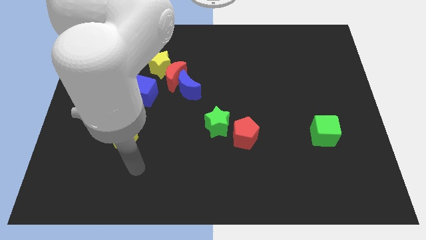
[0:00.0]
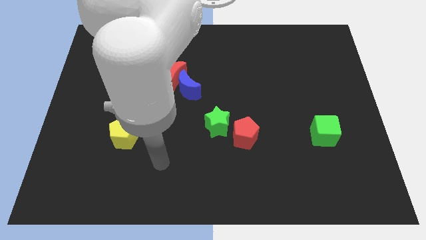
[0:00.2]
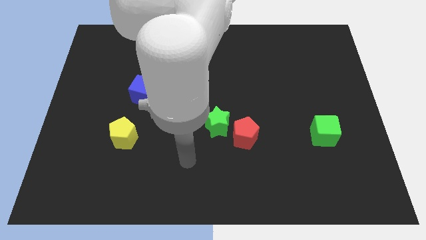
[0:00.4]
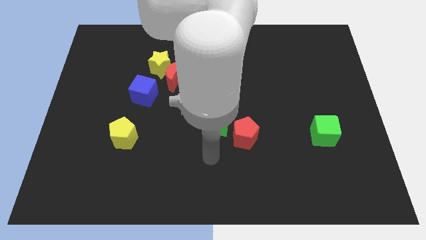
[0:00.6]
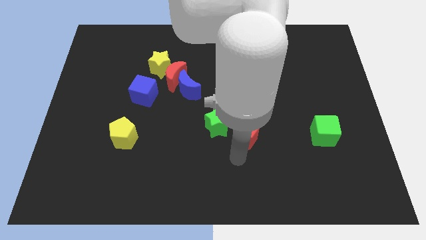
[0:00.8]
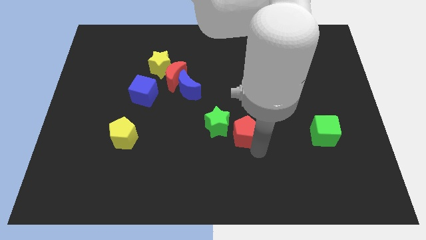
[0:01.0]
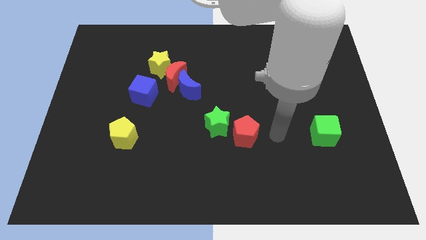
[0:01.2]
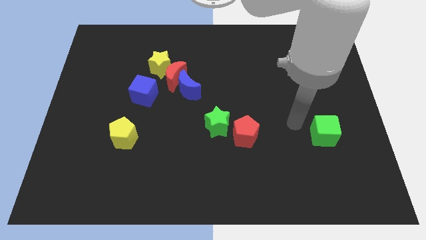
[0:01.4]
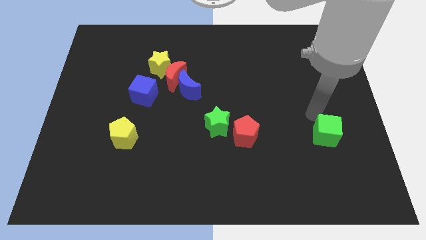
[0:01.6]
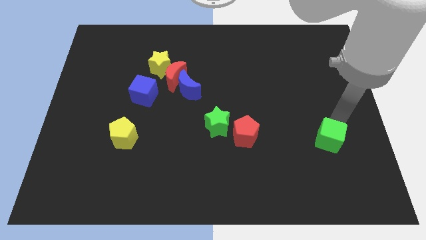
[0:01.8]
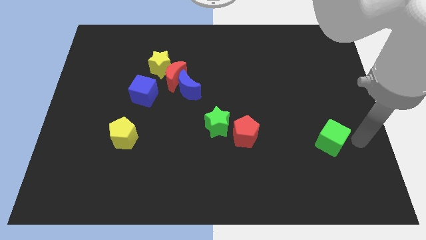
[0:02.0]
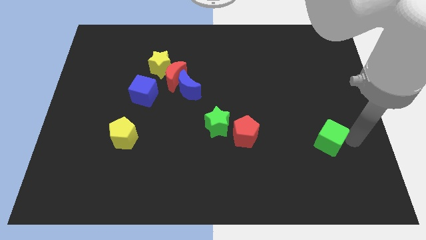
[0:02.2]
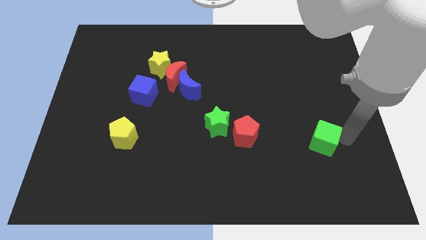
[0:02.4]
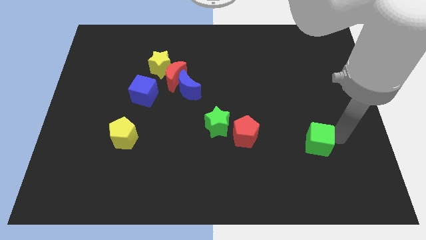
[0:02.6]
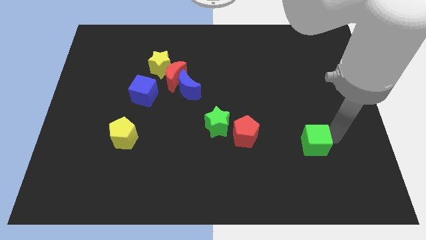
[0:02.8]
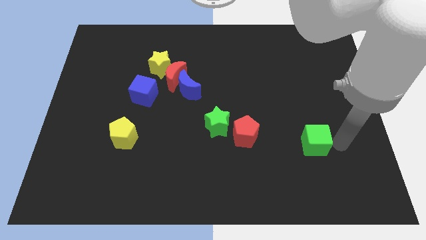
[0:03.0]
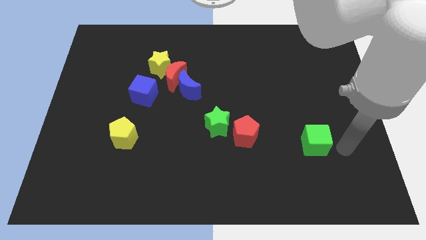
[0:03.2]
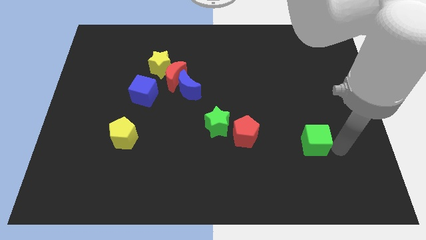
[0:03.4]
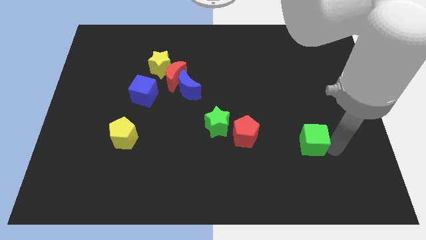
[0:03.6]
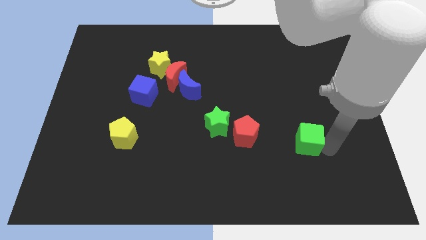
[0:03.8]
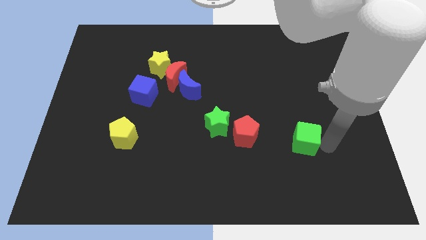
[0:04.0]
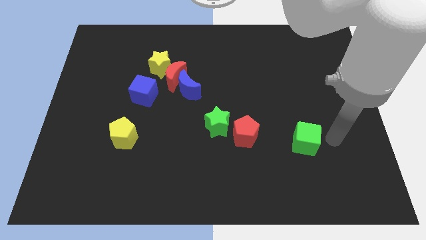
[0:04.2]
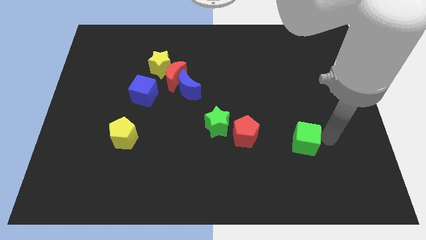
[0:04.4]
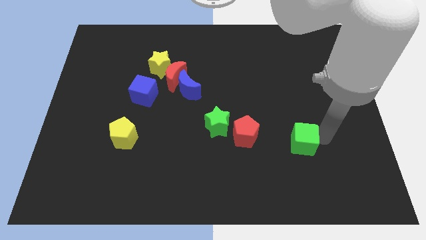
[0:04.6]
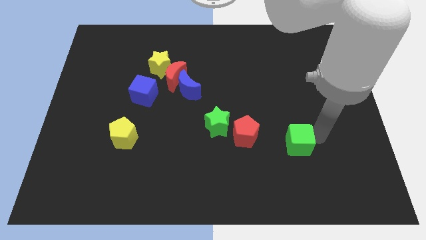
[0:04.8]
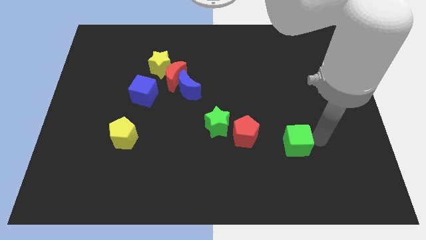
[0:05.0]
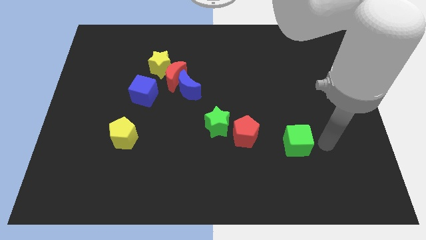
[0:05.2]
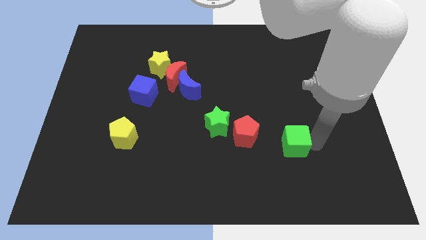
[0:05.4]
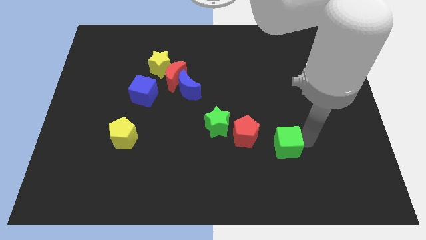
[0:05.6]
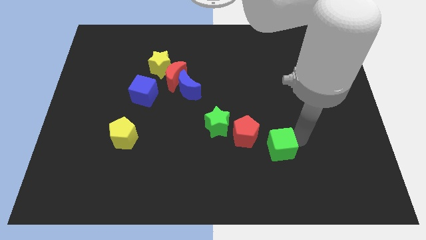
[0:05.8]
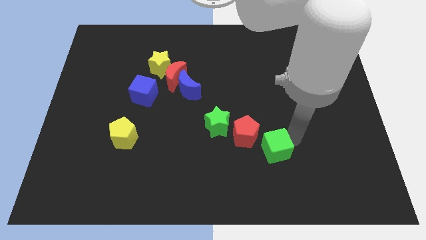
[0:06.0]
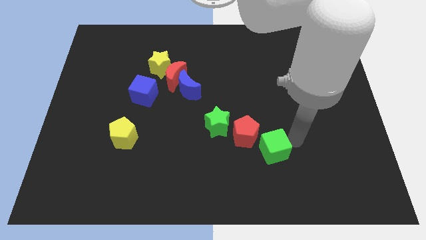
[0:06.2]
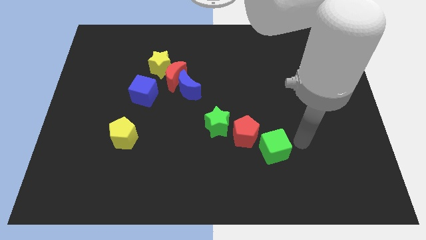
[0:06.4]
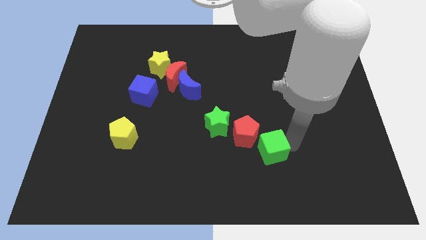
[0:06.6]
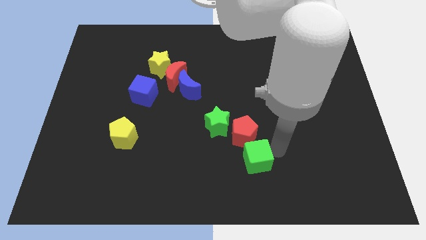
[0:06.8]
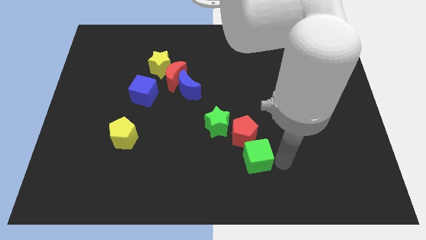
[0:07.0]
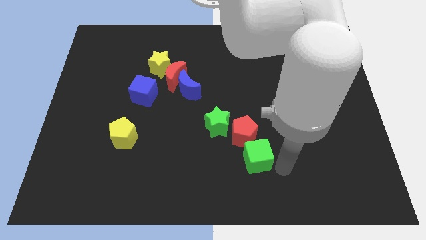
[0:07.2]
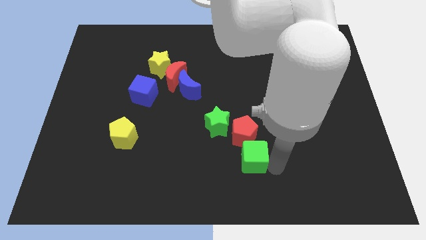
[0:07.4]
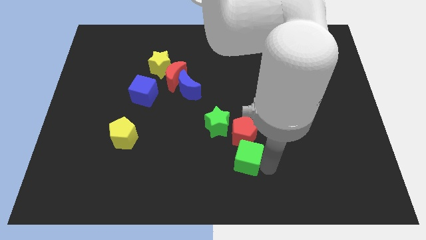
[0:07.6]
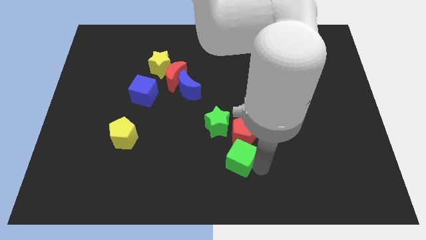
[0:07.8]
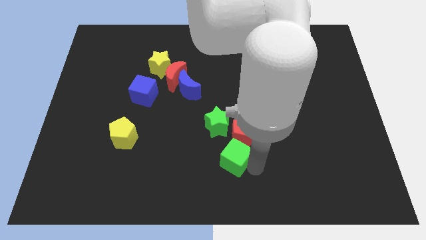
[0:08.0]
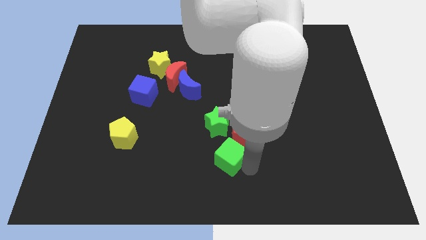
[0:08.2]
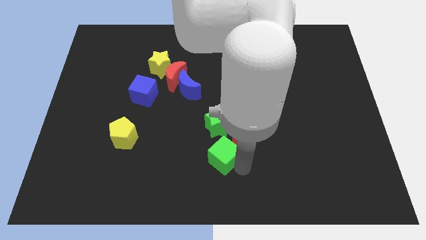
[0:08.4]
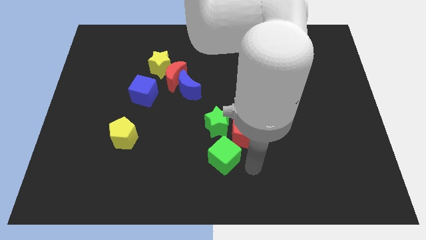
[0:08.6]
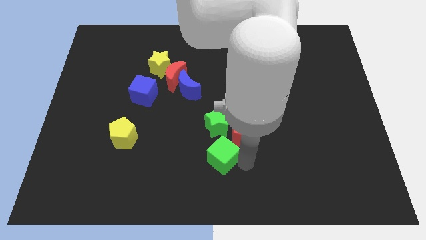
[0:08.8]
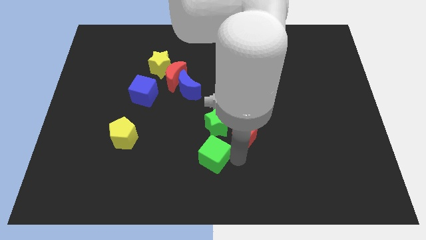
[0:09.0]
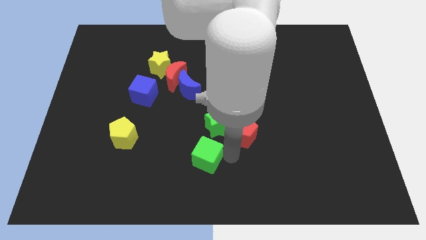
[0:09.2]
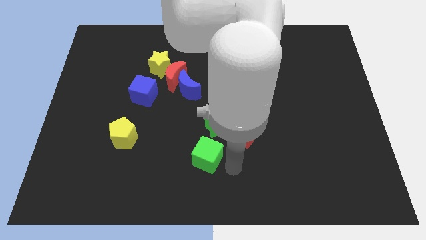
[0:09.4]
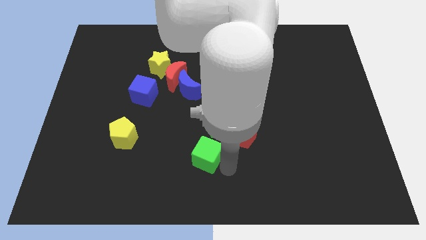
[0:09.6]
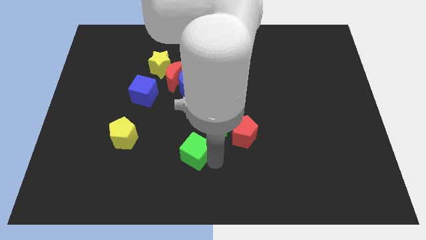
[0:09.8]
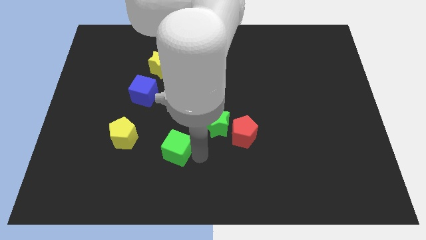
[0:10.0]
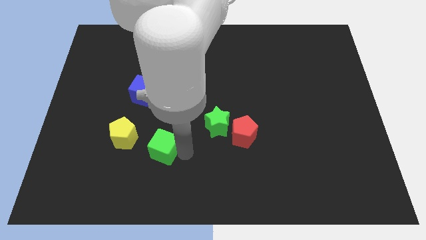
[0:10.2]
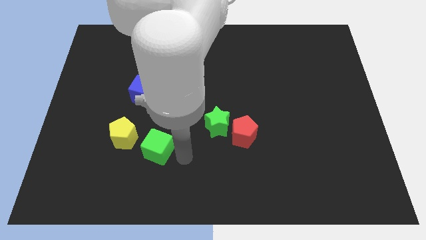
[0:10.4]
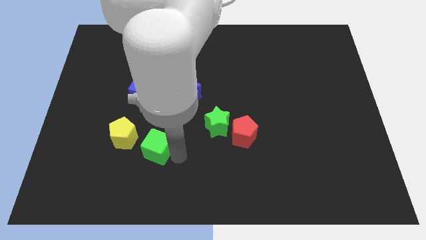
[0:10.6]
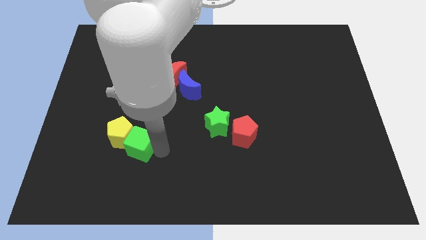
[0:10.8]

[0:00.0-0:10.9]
slide the green cube to the yellow pentagon

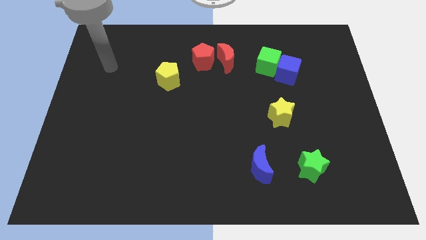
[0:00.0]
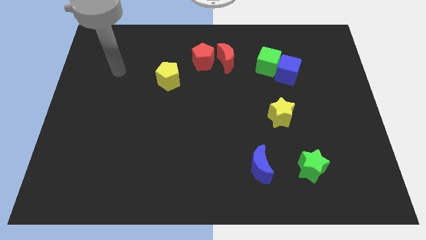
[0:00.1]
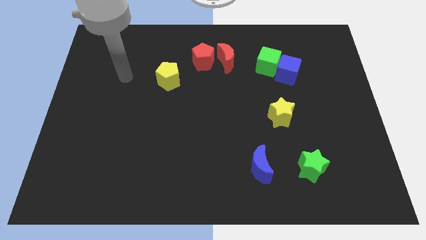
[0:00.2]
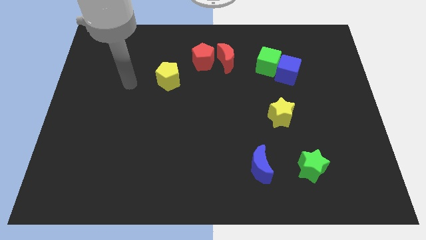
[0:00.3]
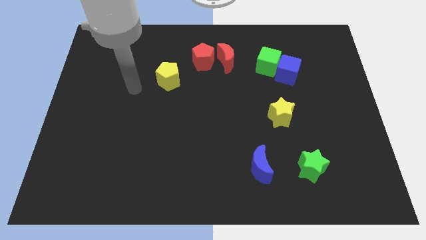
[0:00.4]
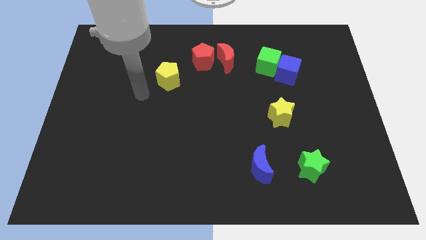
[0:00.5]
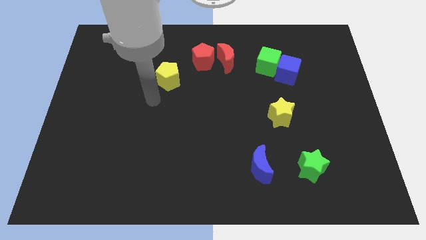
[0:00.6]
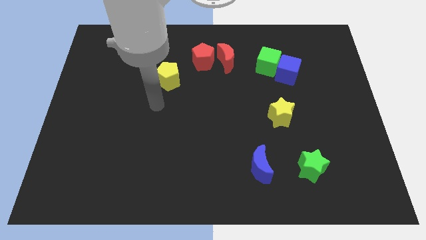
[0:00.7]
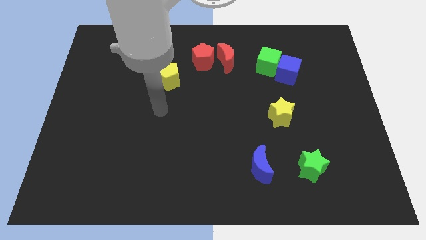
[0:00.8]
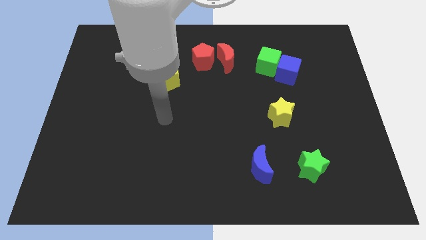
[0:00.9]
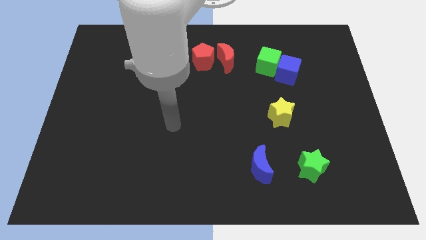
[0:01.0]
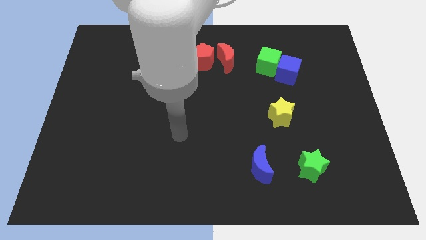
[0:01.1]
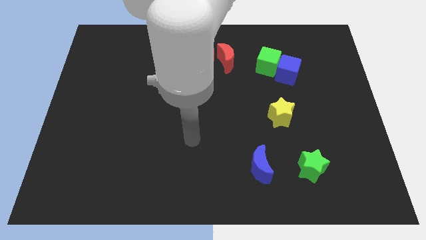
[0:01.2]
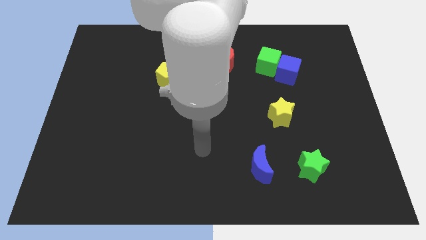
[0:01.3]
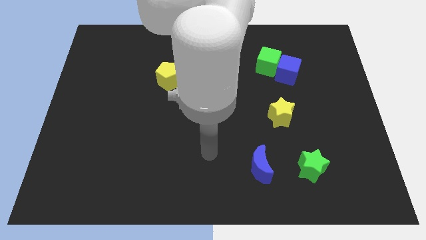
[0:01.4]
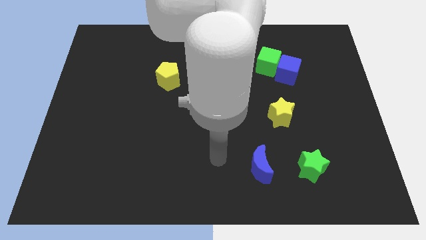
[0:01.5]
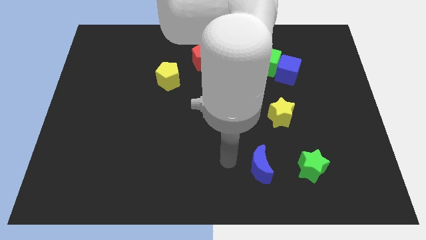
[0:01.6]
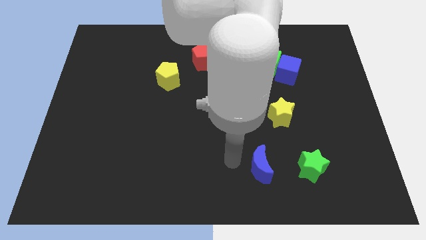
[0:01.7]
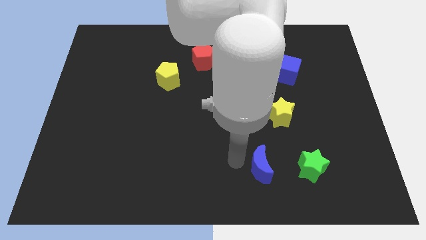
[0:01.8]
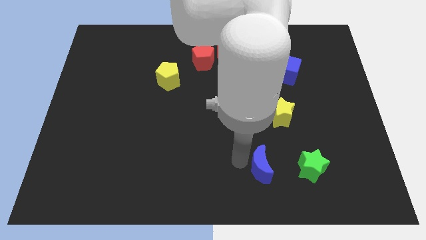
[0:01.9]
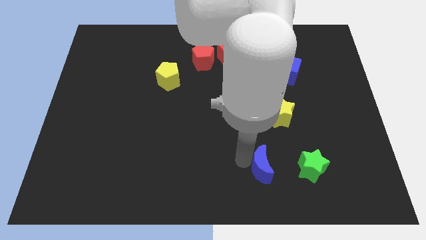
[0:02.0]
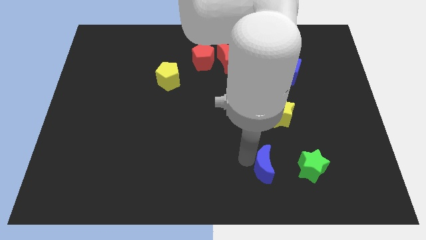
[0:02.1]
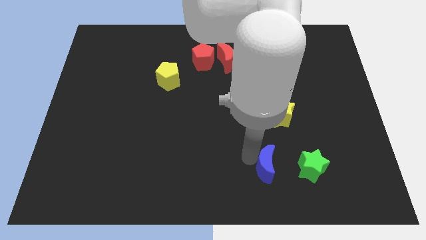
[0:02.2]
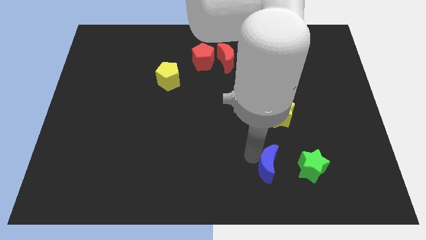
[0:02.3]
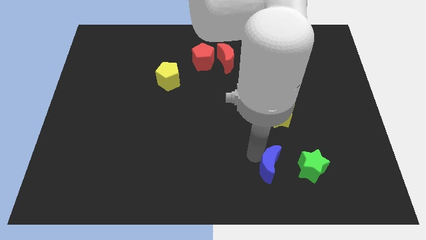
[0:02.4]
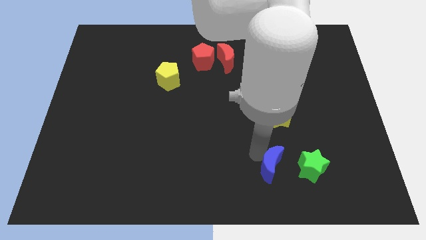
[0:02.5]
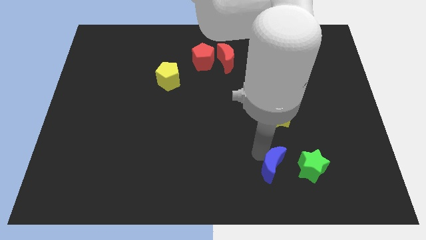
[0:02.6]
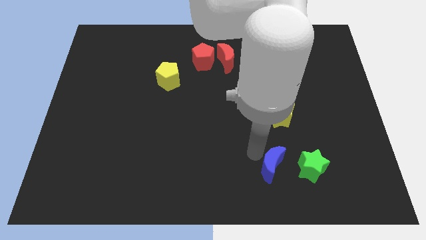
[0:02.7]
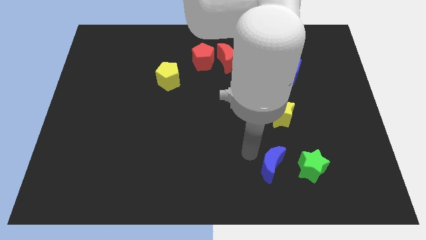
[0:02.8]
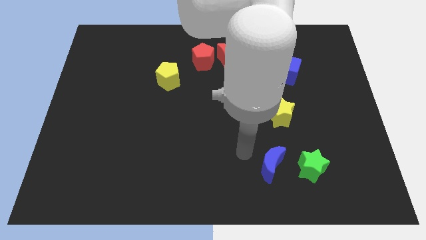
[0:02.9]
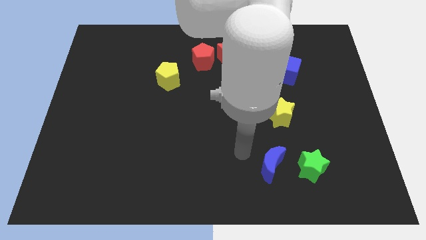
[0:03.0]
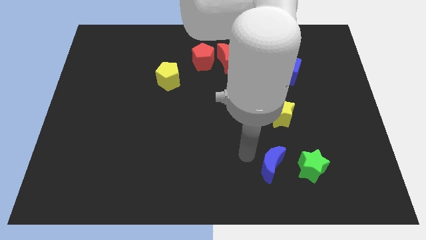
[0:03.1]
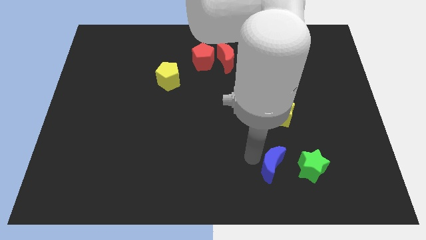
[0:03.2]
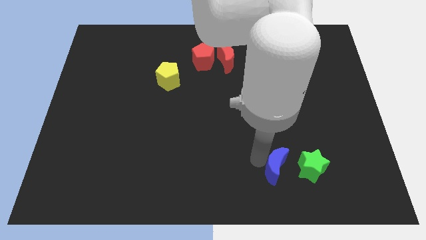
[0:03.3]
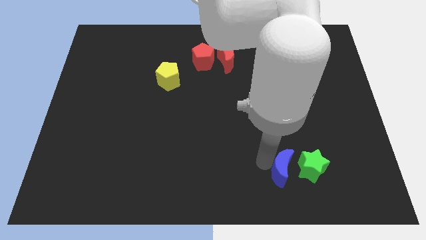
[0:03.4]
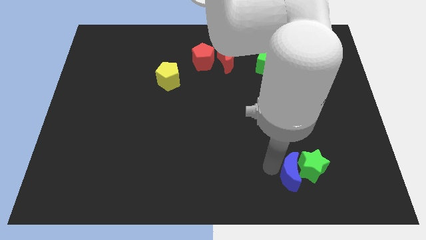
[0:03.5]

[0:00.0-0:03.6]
push the blue moon towards the green star
